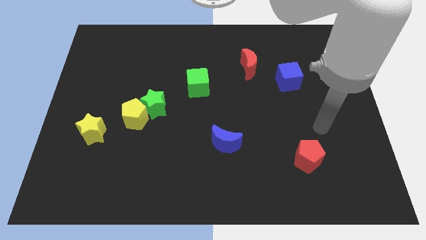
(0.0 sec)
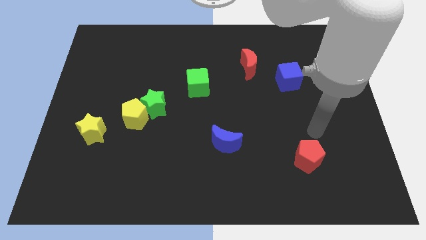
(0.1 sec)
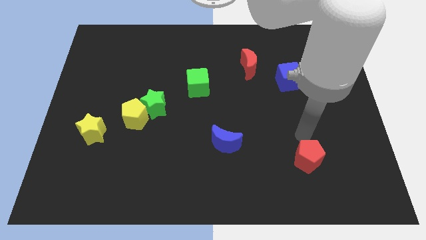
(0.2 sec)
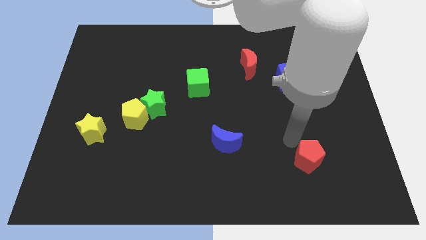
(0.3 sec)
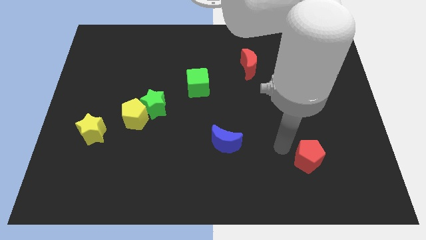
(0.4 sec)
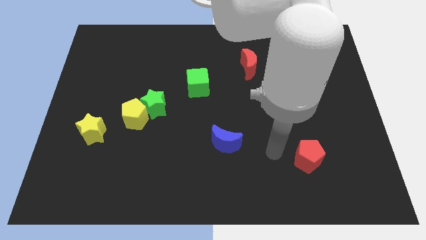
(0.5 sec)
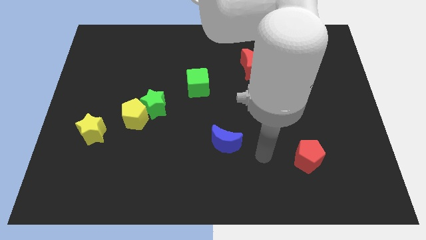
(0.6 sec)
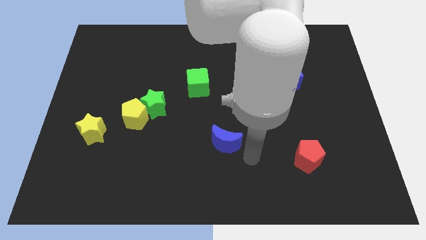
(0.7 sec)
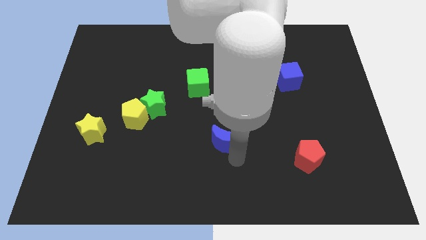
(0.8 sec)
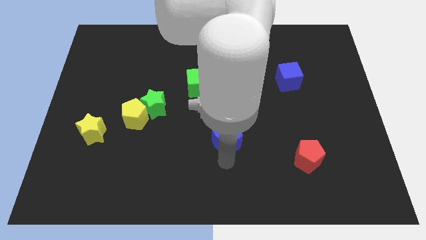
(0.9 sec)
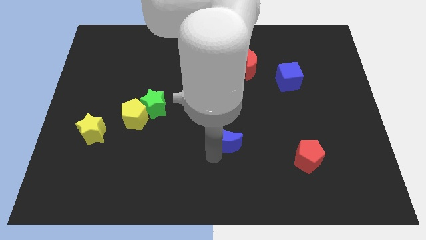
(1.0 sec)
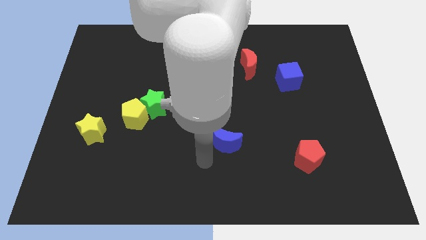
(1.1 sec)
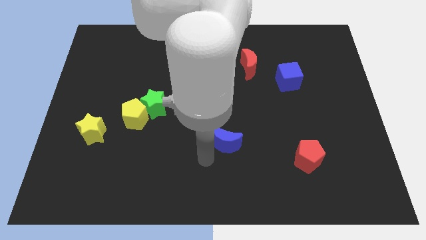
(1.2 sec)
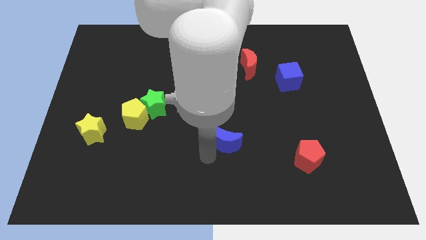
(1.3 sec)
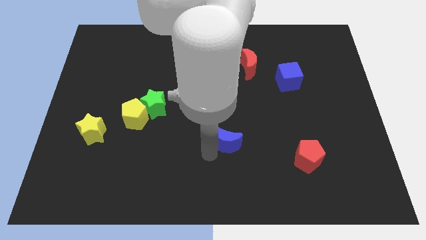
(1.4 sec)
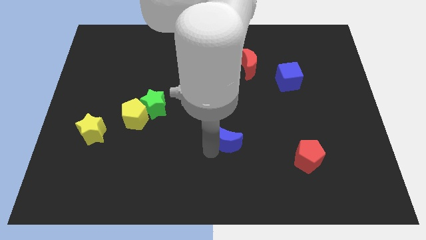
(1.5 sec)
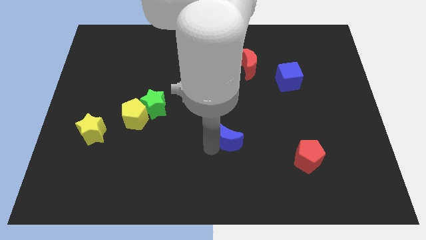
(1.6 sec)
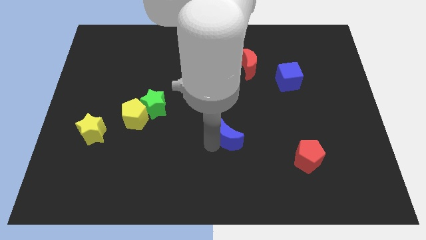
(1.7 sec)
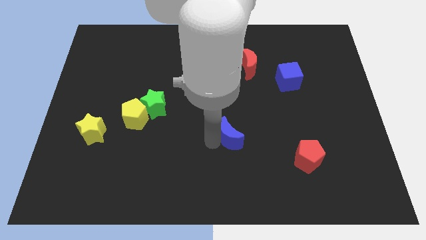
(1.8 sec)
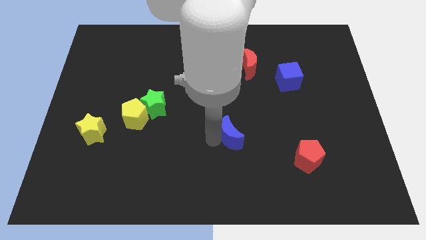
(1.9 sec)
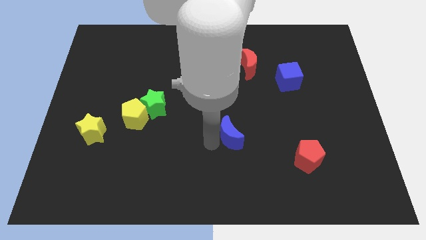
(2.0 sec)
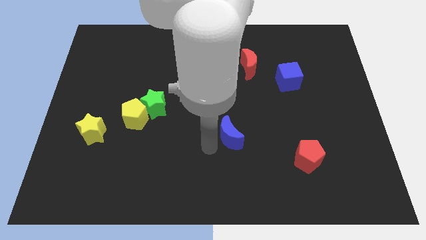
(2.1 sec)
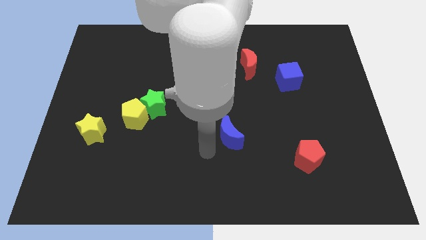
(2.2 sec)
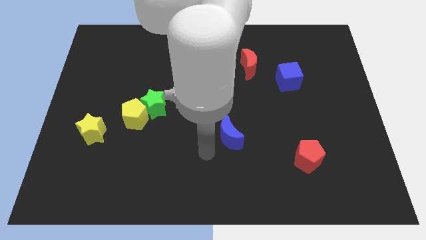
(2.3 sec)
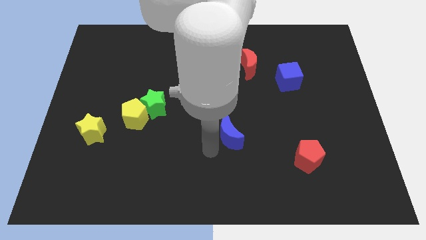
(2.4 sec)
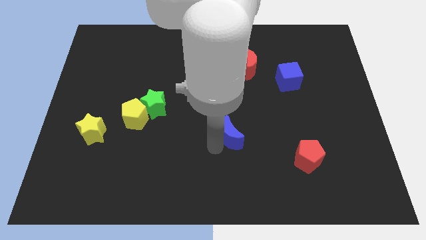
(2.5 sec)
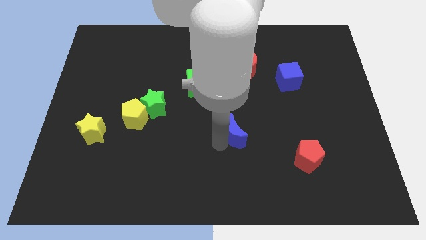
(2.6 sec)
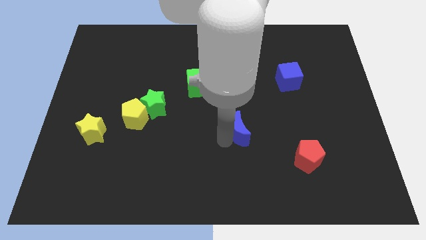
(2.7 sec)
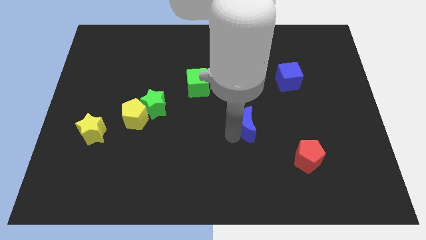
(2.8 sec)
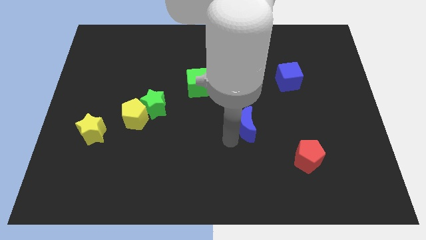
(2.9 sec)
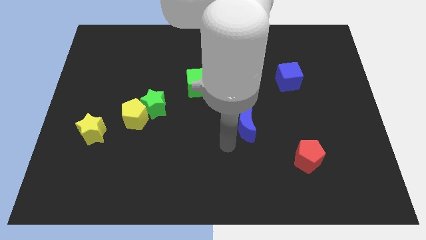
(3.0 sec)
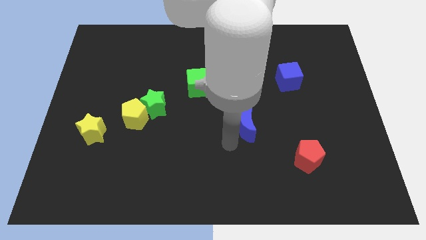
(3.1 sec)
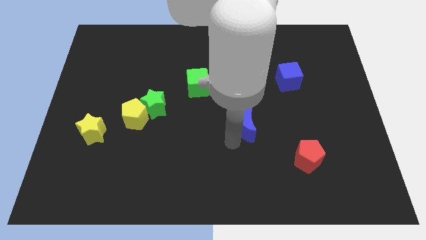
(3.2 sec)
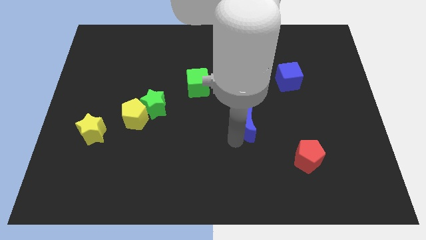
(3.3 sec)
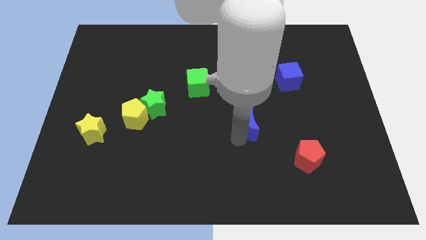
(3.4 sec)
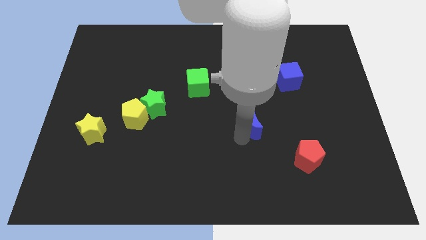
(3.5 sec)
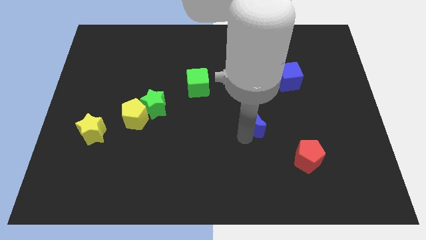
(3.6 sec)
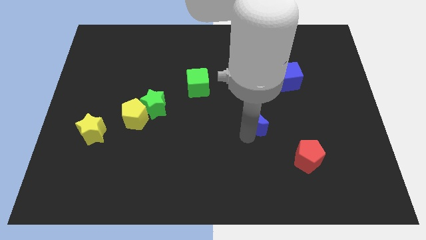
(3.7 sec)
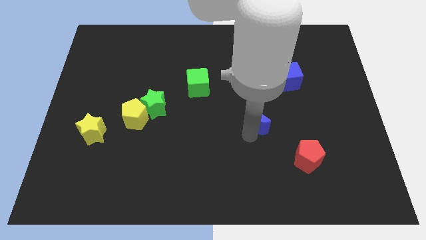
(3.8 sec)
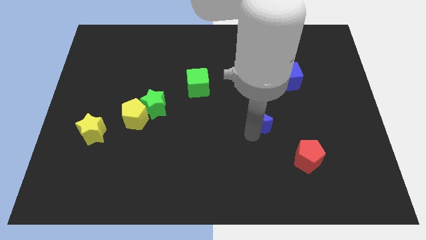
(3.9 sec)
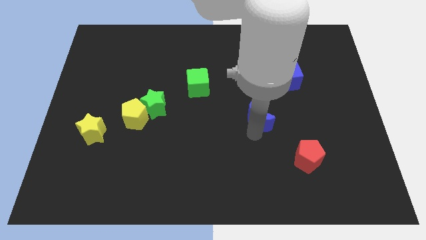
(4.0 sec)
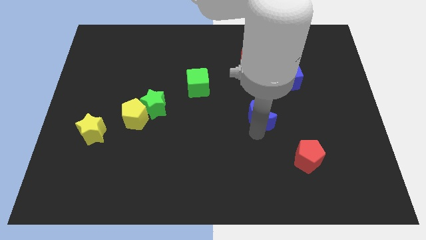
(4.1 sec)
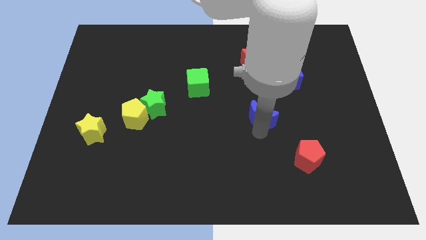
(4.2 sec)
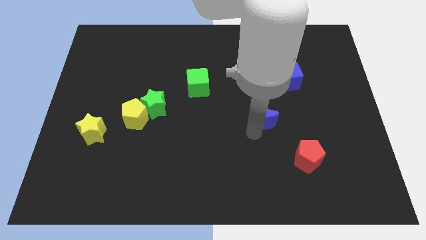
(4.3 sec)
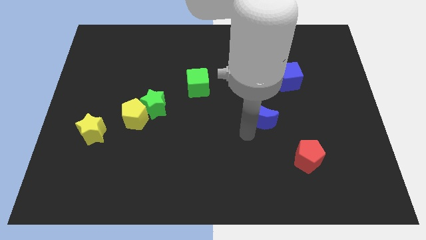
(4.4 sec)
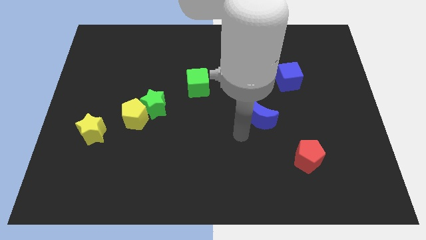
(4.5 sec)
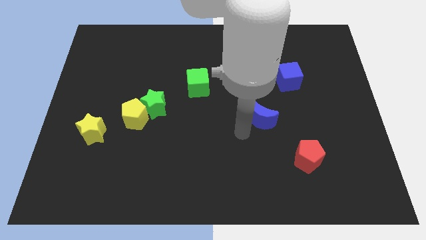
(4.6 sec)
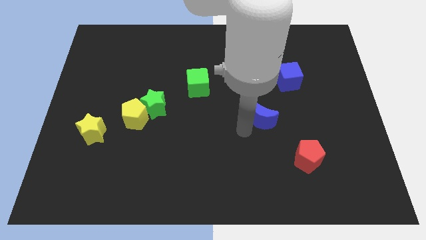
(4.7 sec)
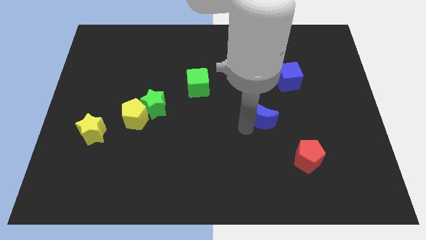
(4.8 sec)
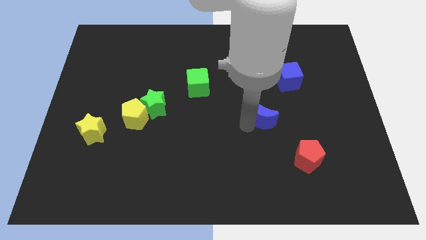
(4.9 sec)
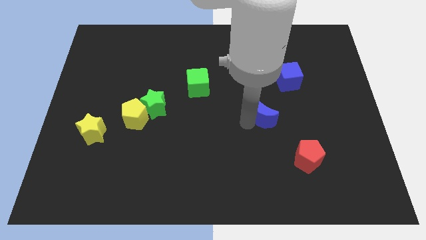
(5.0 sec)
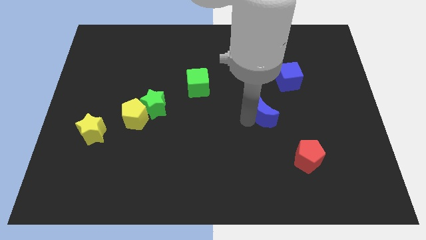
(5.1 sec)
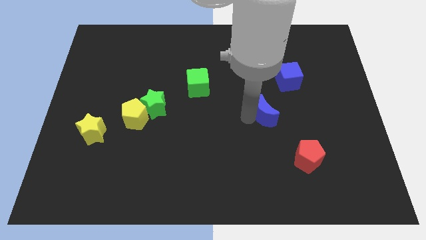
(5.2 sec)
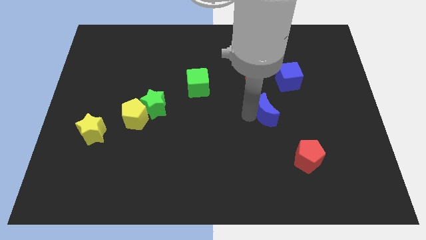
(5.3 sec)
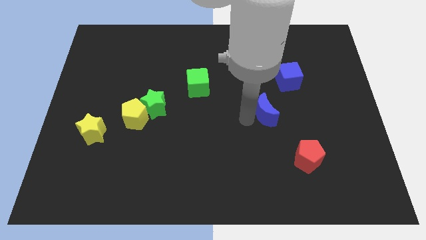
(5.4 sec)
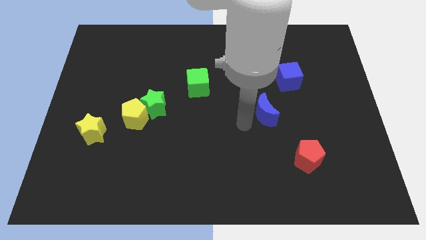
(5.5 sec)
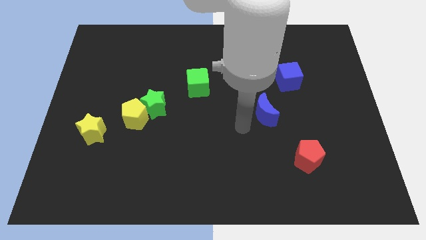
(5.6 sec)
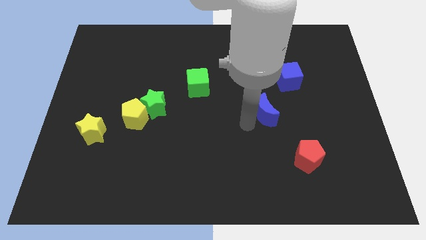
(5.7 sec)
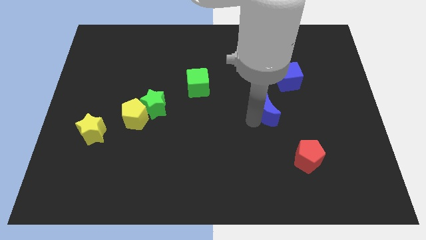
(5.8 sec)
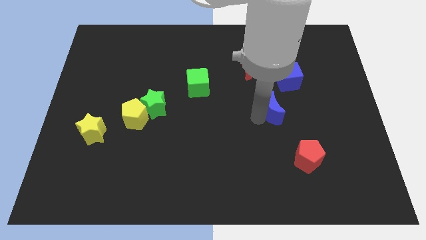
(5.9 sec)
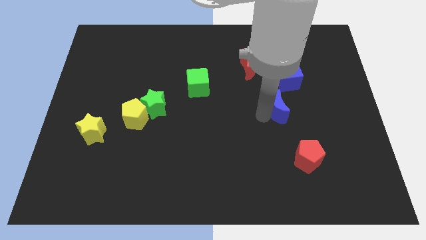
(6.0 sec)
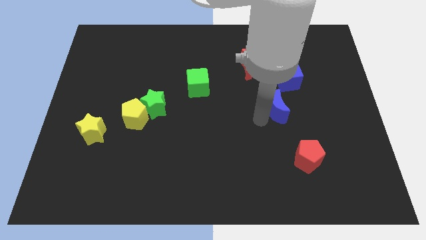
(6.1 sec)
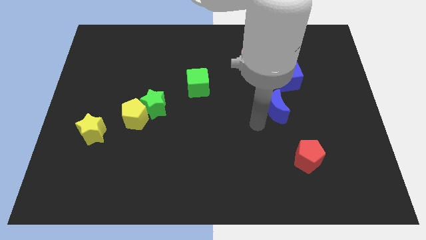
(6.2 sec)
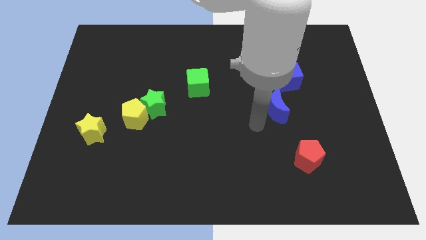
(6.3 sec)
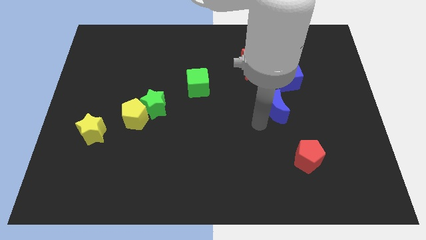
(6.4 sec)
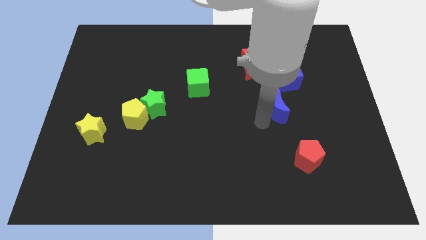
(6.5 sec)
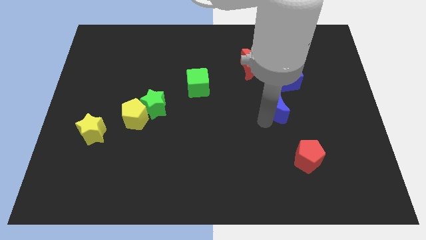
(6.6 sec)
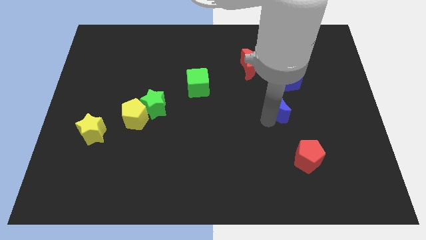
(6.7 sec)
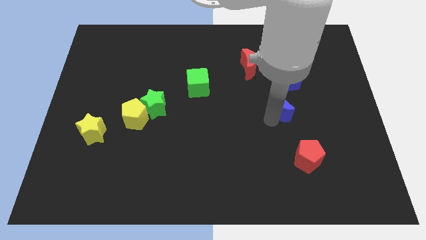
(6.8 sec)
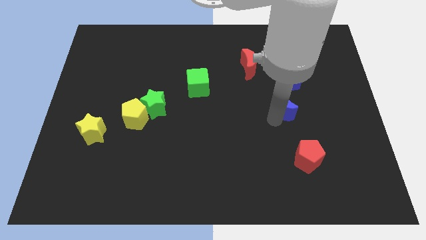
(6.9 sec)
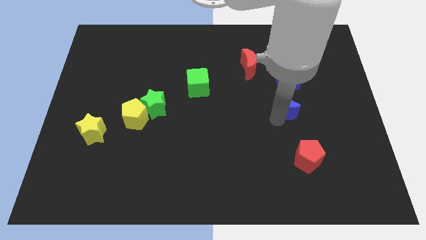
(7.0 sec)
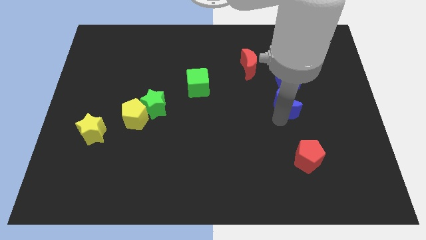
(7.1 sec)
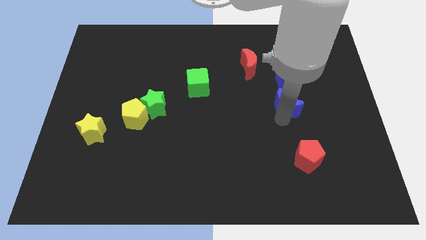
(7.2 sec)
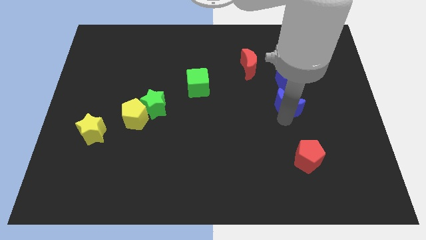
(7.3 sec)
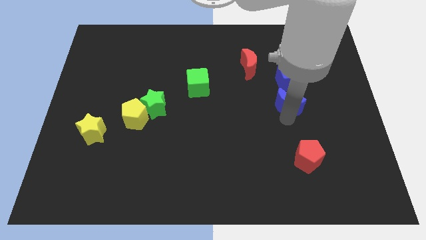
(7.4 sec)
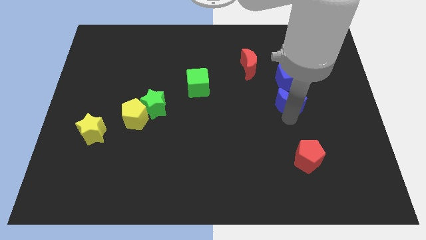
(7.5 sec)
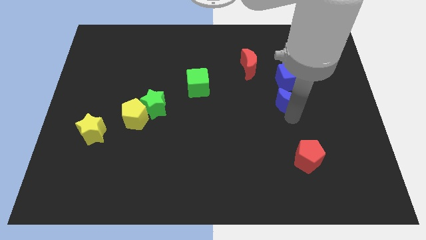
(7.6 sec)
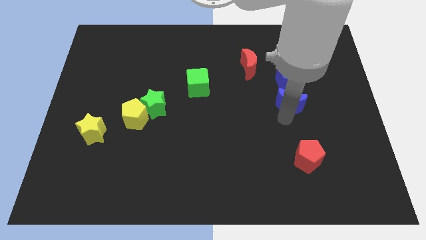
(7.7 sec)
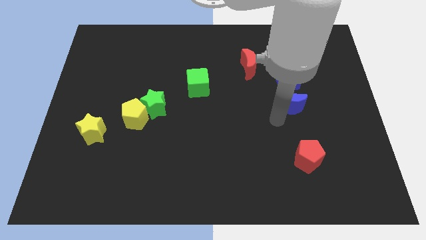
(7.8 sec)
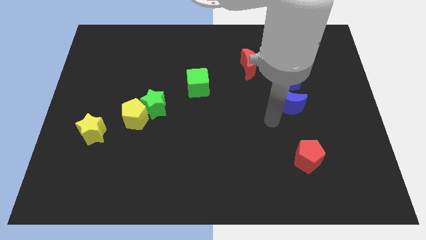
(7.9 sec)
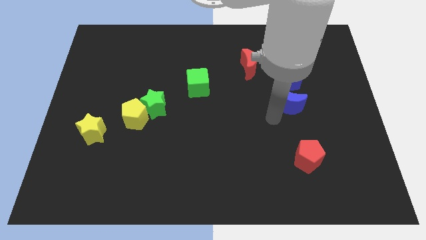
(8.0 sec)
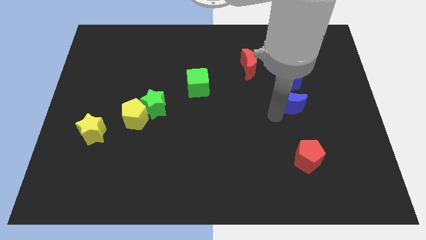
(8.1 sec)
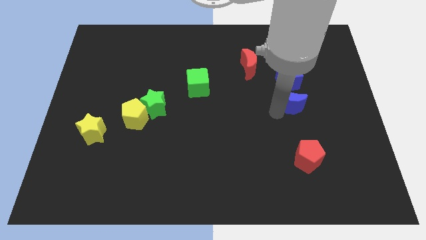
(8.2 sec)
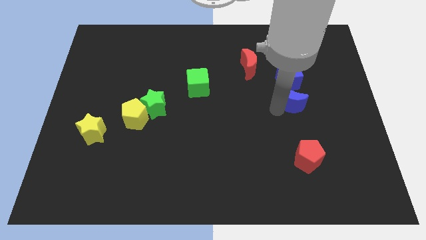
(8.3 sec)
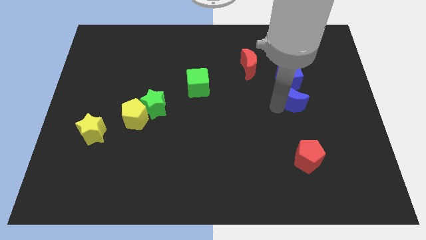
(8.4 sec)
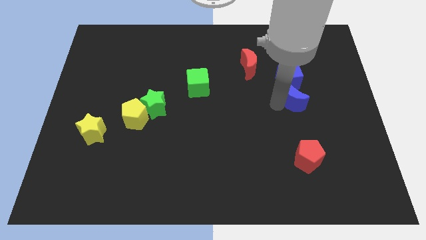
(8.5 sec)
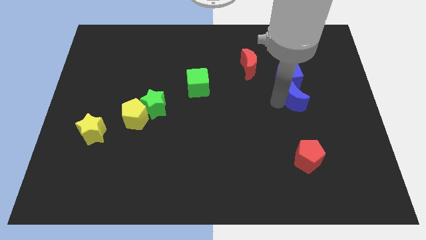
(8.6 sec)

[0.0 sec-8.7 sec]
push the blue moon up and right diagonally
